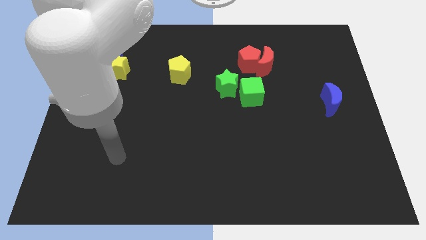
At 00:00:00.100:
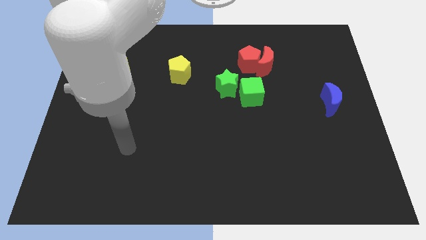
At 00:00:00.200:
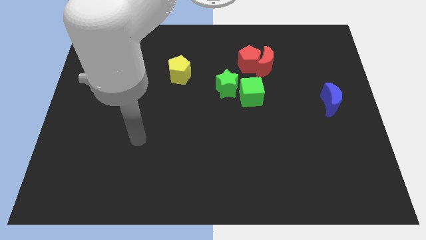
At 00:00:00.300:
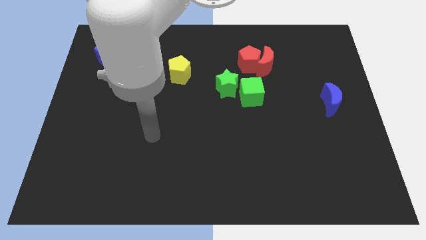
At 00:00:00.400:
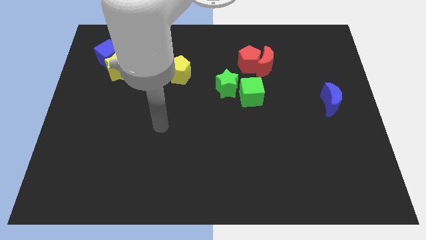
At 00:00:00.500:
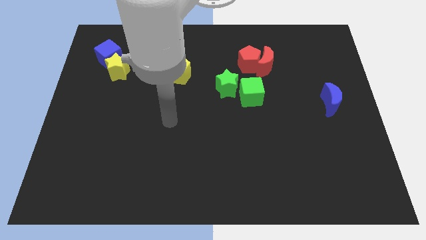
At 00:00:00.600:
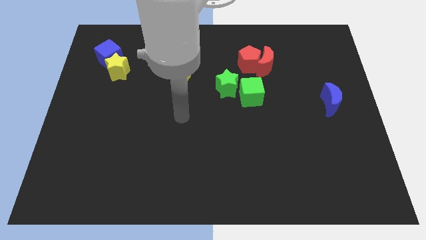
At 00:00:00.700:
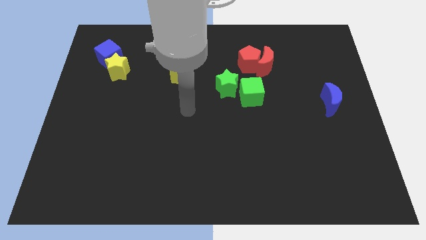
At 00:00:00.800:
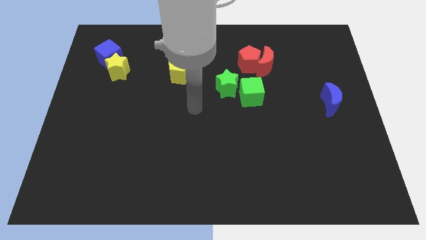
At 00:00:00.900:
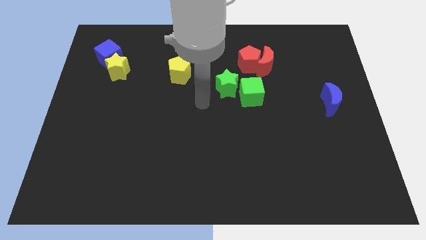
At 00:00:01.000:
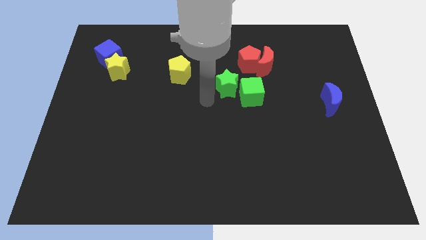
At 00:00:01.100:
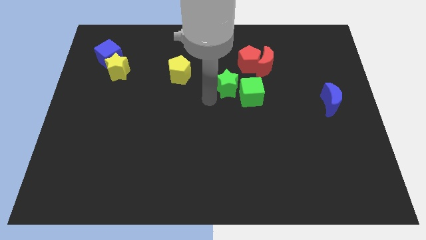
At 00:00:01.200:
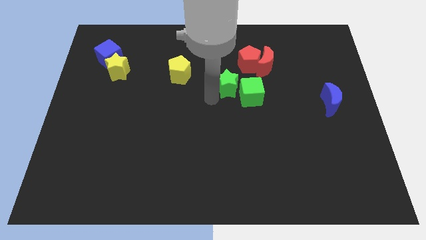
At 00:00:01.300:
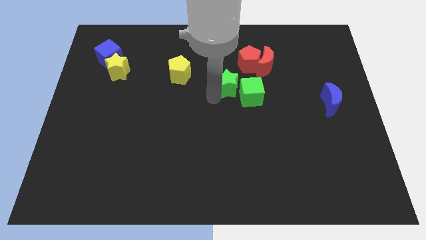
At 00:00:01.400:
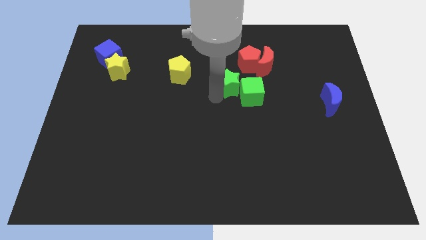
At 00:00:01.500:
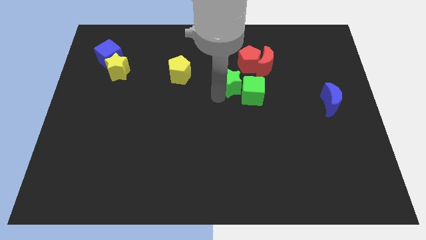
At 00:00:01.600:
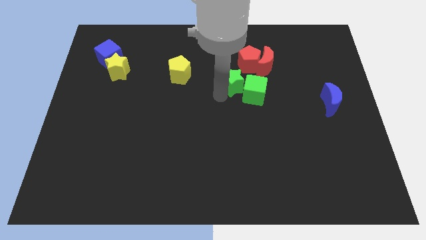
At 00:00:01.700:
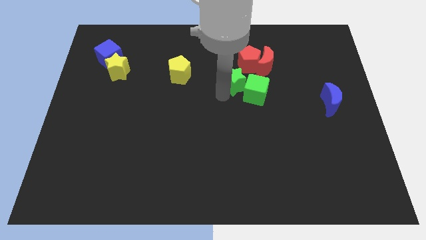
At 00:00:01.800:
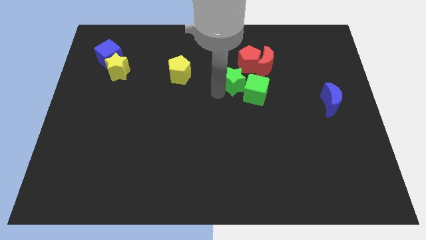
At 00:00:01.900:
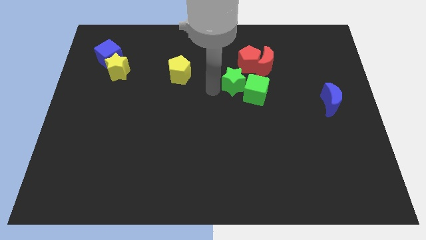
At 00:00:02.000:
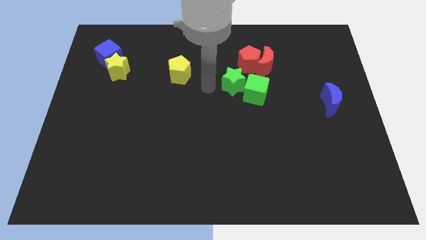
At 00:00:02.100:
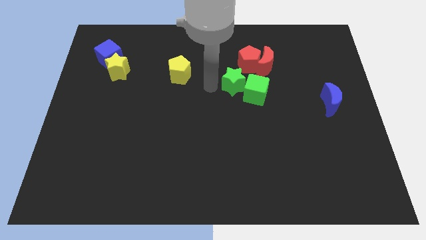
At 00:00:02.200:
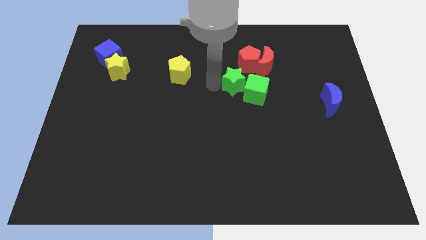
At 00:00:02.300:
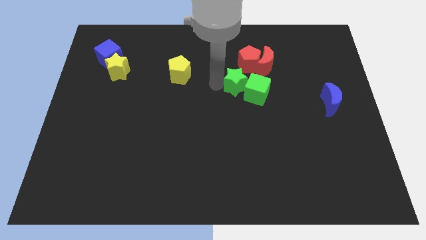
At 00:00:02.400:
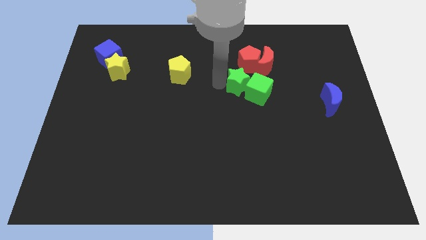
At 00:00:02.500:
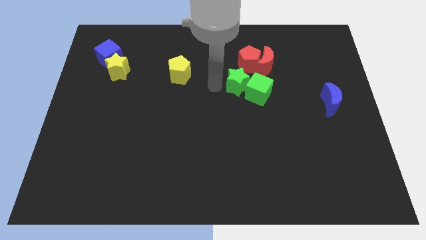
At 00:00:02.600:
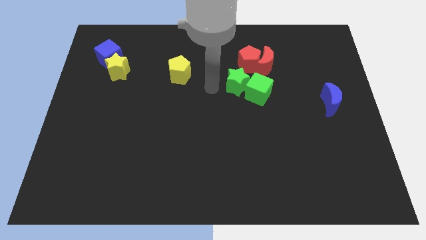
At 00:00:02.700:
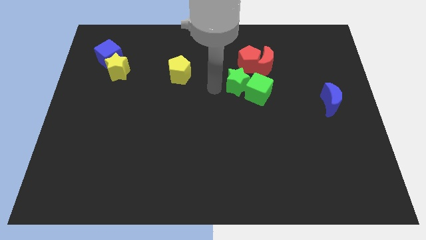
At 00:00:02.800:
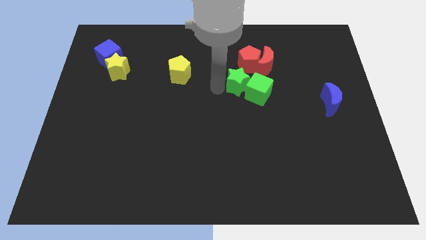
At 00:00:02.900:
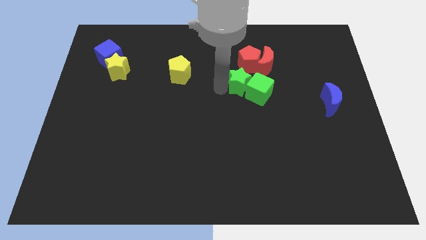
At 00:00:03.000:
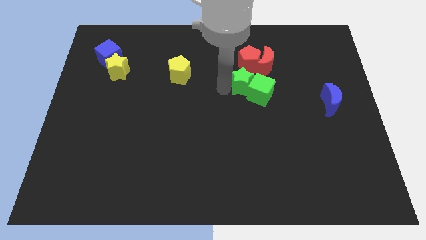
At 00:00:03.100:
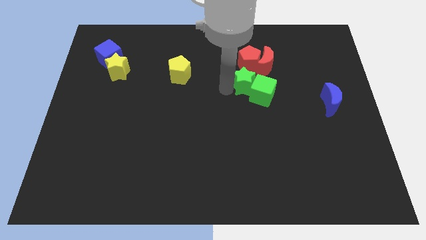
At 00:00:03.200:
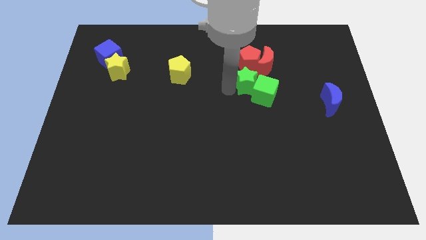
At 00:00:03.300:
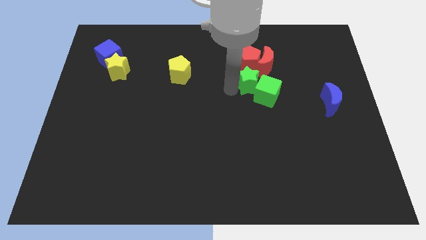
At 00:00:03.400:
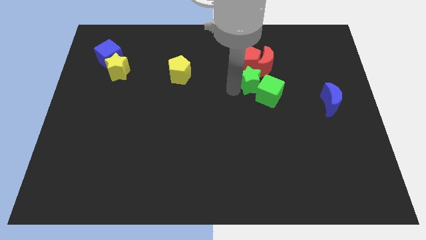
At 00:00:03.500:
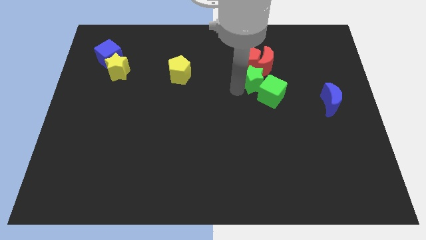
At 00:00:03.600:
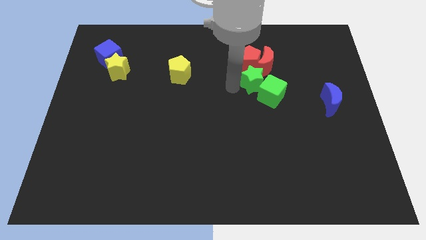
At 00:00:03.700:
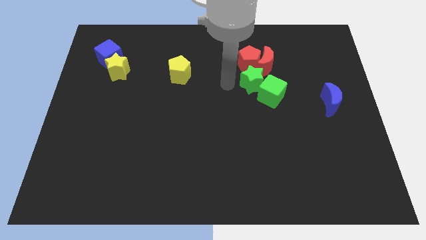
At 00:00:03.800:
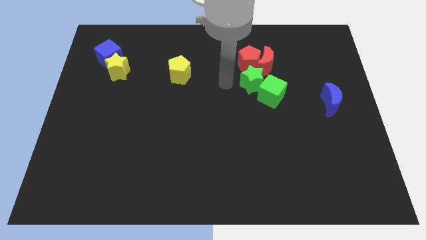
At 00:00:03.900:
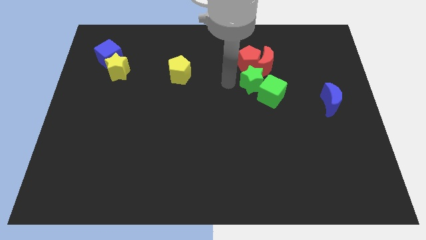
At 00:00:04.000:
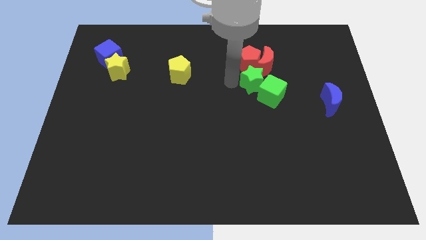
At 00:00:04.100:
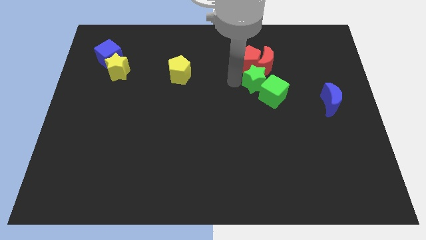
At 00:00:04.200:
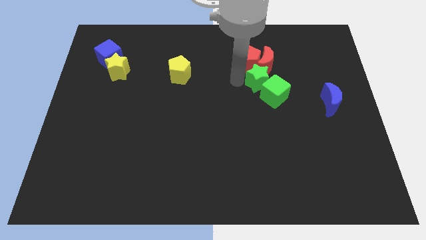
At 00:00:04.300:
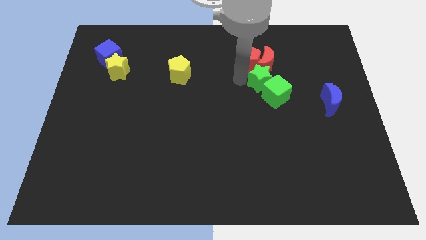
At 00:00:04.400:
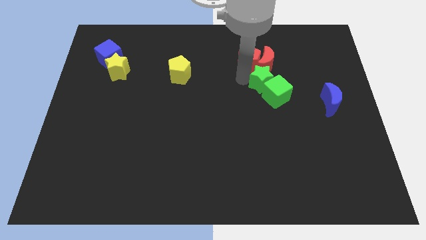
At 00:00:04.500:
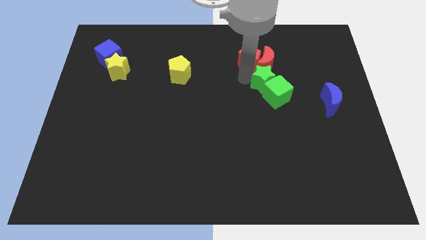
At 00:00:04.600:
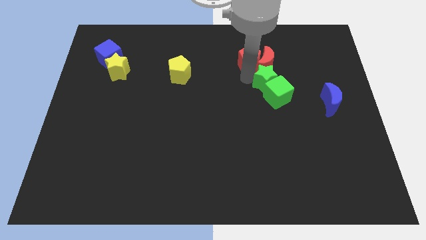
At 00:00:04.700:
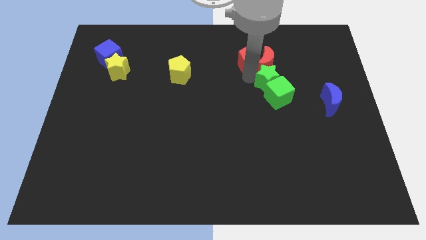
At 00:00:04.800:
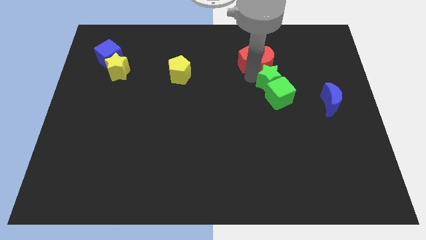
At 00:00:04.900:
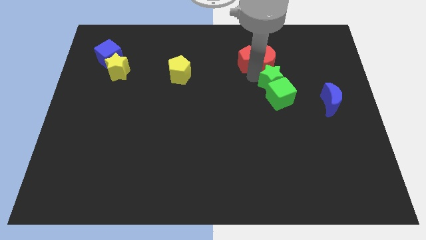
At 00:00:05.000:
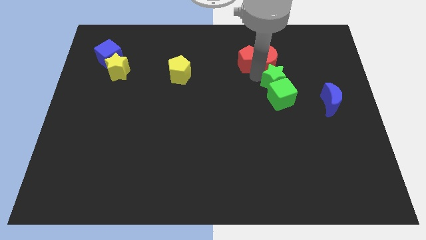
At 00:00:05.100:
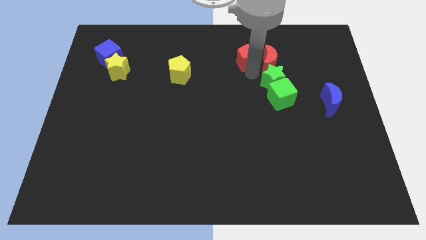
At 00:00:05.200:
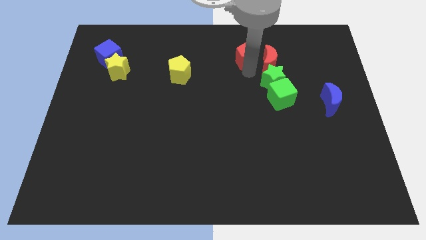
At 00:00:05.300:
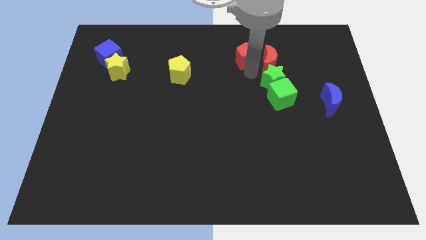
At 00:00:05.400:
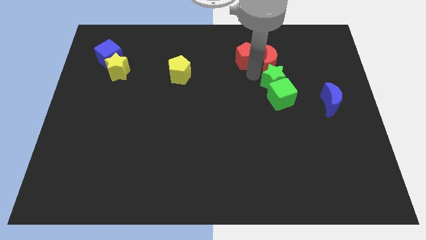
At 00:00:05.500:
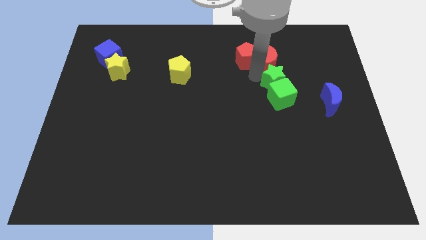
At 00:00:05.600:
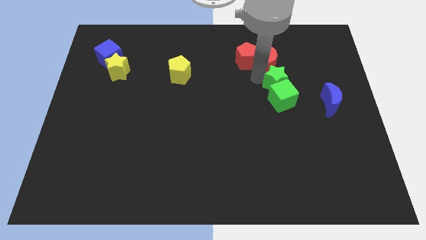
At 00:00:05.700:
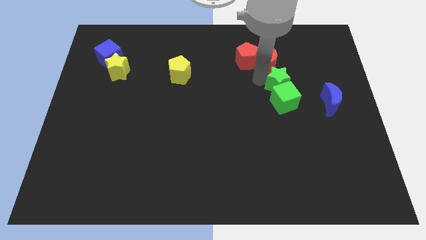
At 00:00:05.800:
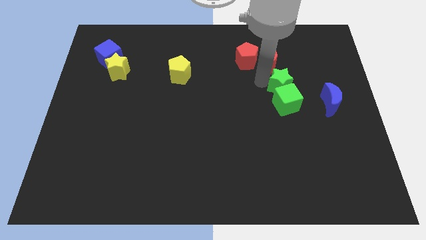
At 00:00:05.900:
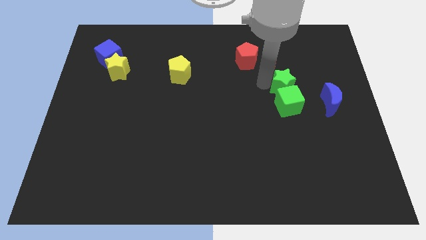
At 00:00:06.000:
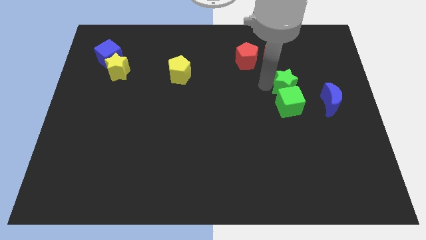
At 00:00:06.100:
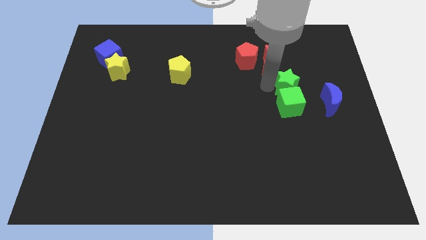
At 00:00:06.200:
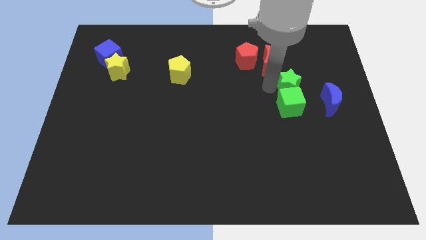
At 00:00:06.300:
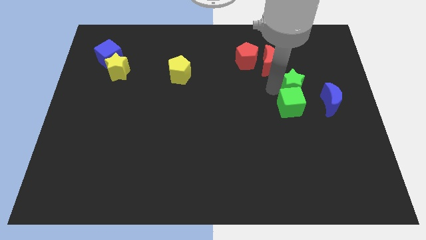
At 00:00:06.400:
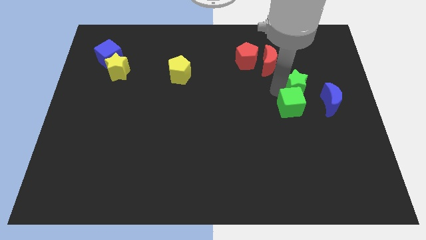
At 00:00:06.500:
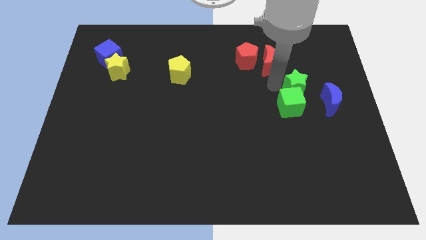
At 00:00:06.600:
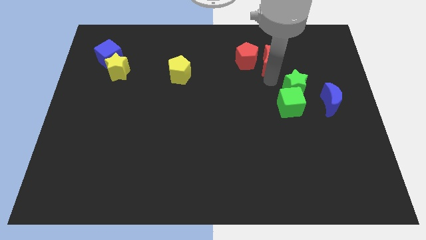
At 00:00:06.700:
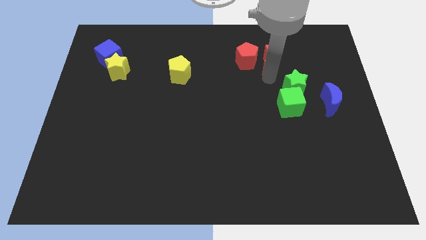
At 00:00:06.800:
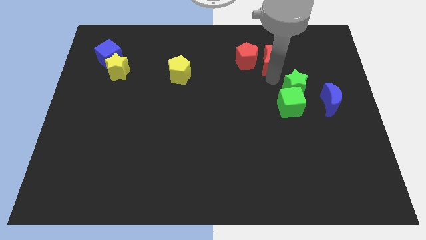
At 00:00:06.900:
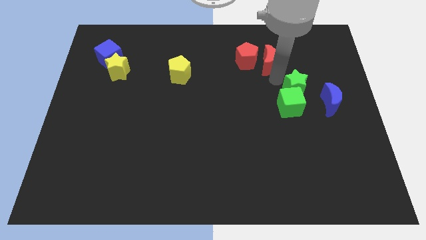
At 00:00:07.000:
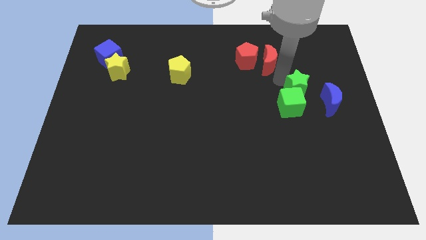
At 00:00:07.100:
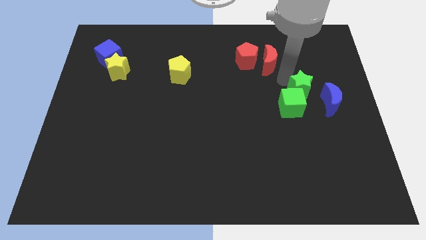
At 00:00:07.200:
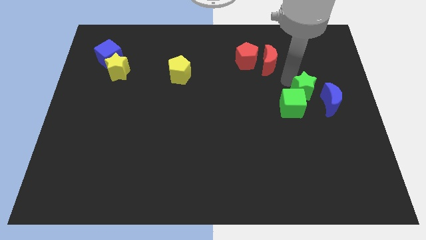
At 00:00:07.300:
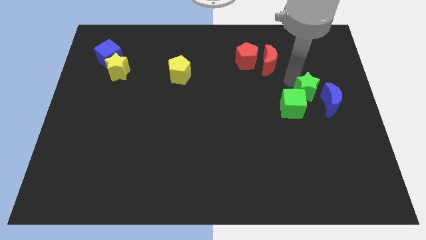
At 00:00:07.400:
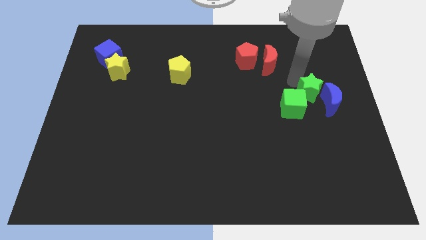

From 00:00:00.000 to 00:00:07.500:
put the green star to the blue moon
